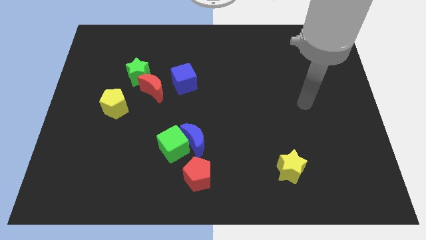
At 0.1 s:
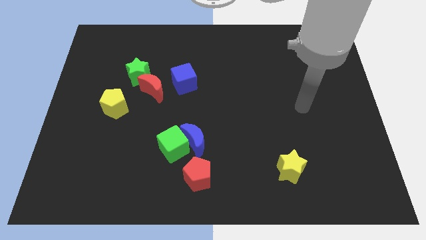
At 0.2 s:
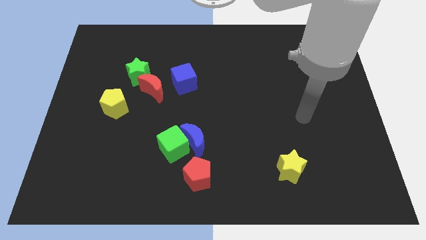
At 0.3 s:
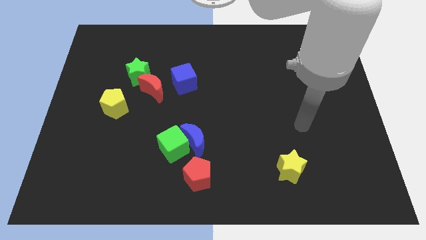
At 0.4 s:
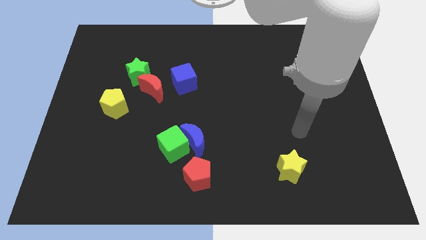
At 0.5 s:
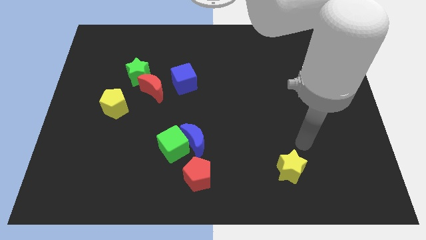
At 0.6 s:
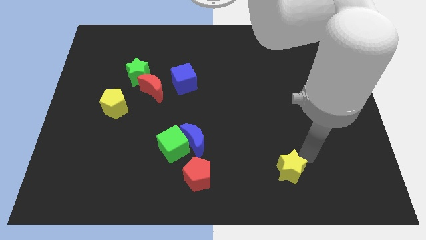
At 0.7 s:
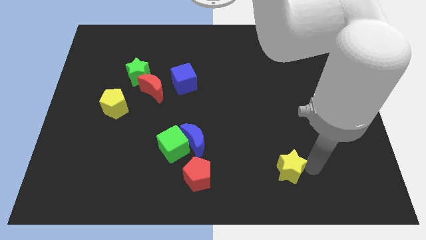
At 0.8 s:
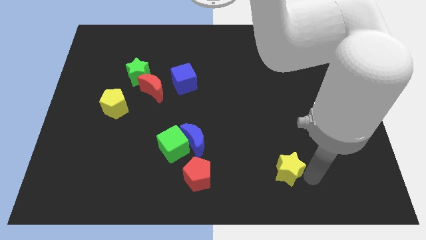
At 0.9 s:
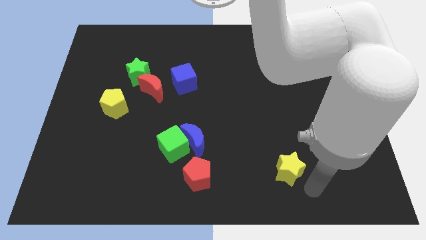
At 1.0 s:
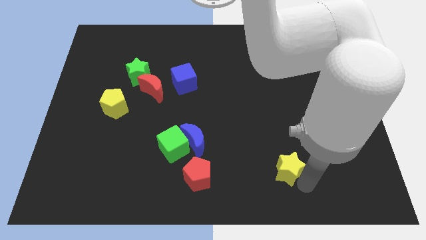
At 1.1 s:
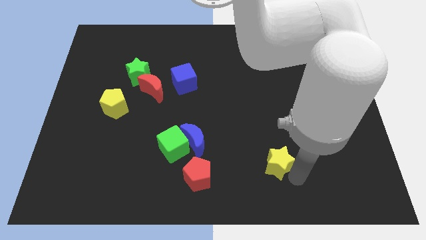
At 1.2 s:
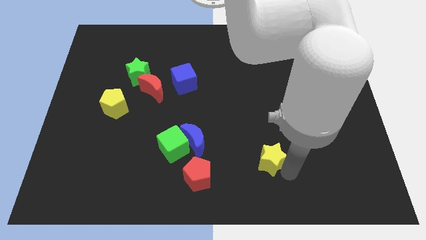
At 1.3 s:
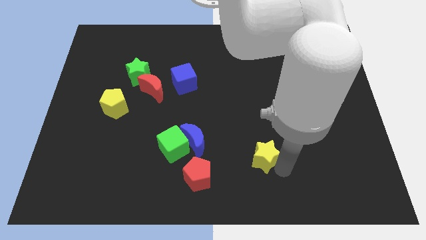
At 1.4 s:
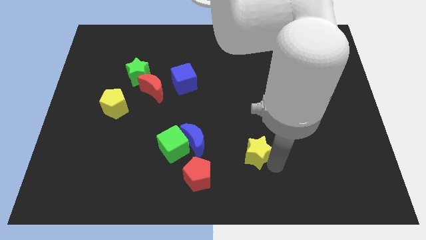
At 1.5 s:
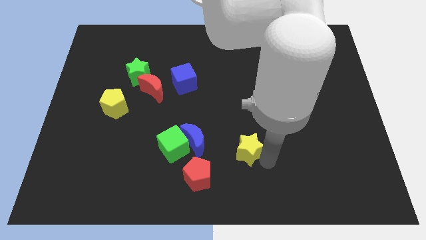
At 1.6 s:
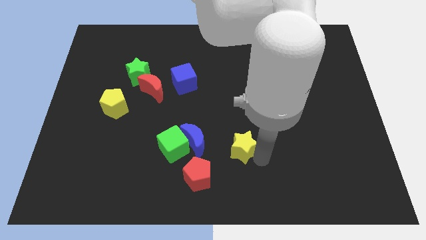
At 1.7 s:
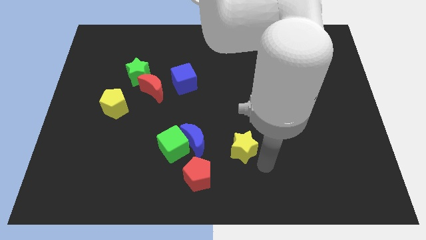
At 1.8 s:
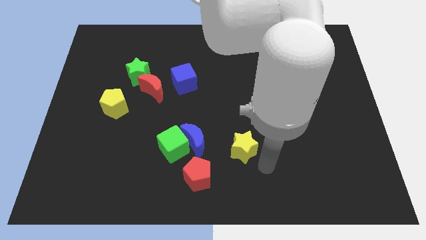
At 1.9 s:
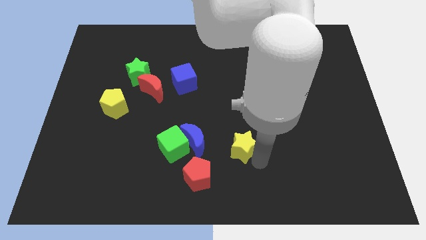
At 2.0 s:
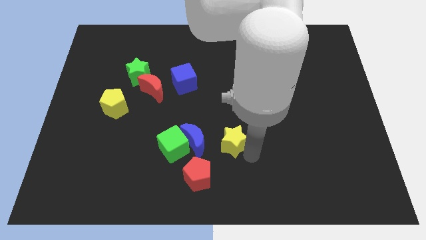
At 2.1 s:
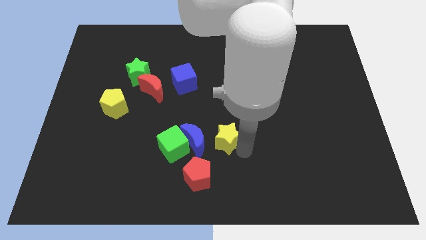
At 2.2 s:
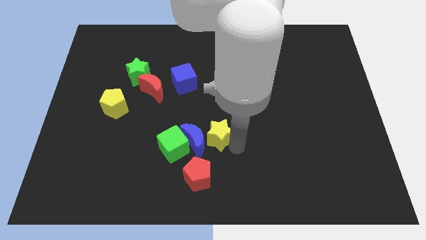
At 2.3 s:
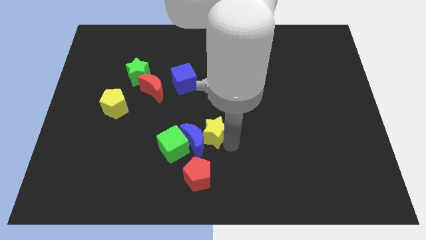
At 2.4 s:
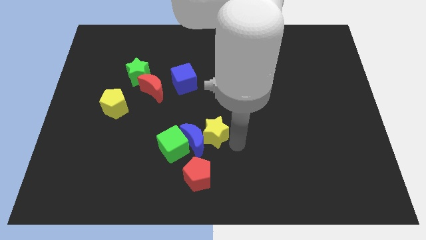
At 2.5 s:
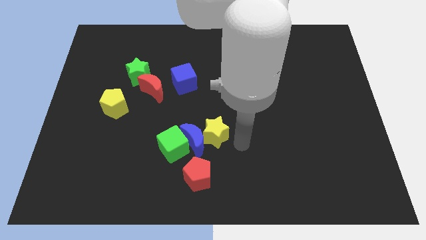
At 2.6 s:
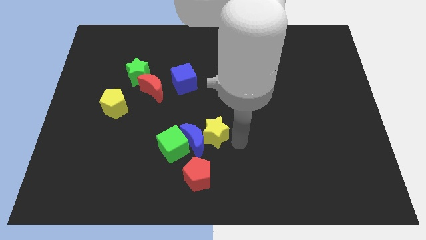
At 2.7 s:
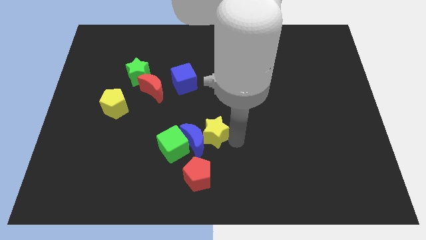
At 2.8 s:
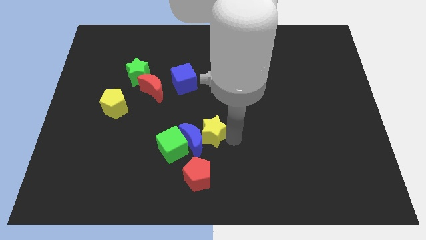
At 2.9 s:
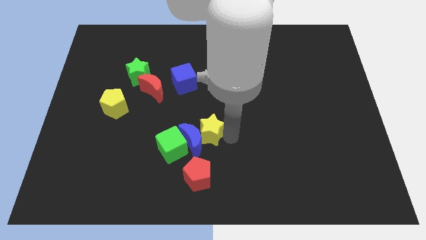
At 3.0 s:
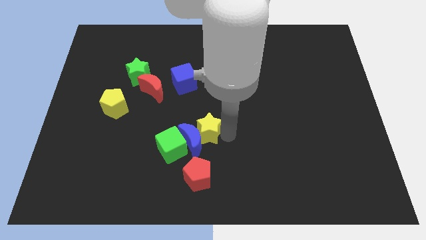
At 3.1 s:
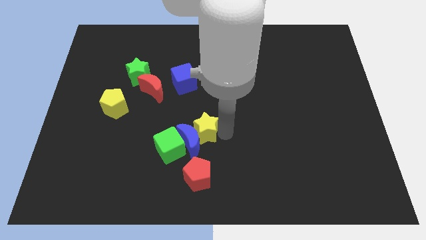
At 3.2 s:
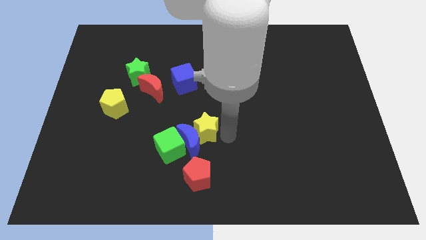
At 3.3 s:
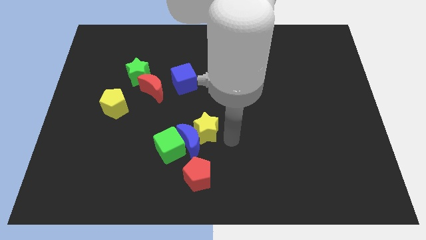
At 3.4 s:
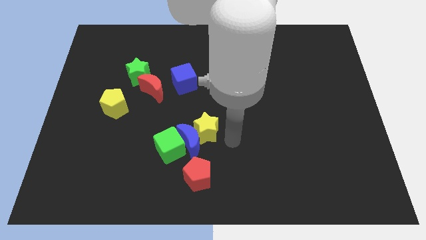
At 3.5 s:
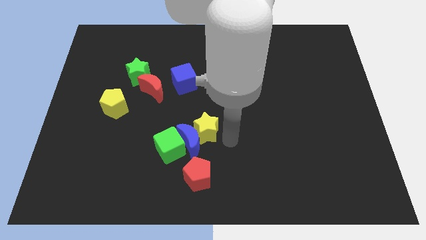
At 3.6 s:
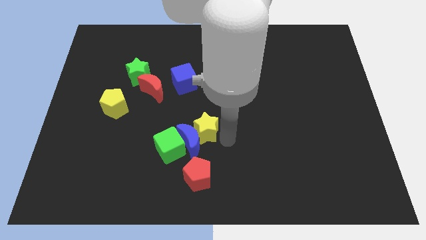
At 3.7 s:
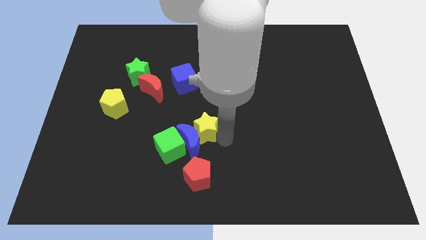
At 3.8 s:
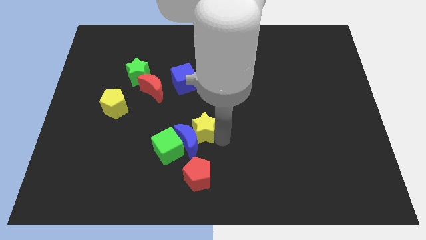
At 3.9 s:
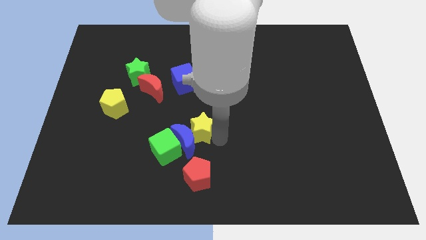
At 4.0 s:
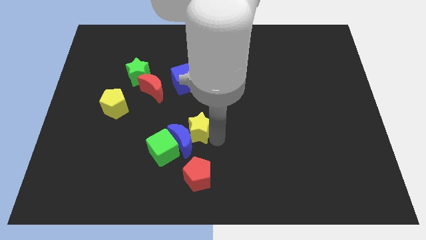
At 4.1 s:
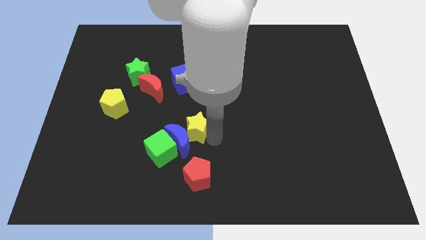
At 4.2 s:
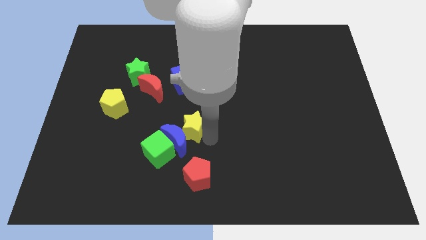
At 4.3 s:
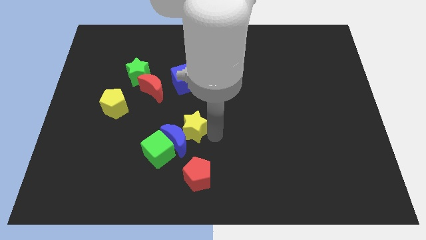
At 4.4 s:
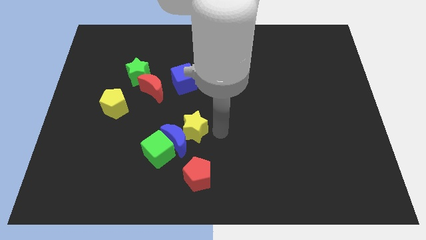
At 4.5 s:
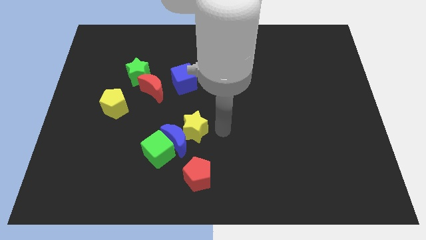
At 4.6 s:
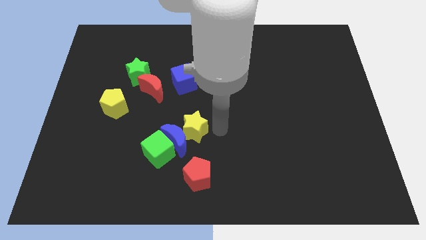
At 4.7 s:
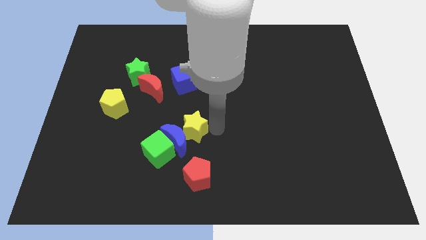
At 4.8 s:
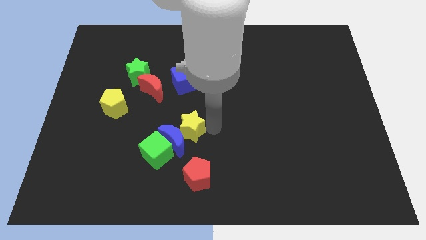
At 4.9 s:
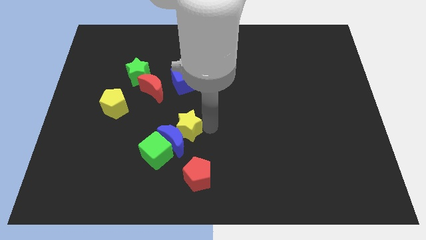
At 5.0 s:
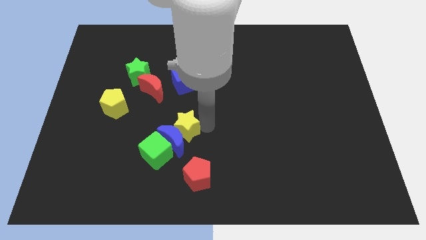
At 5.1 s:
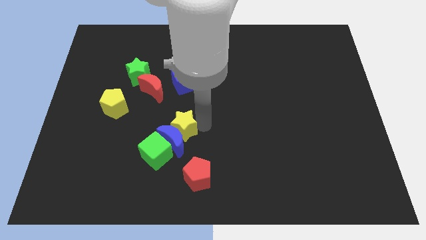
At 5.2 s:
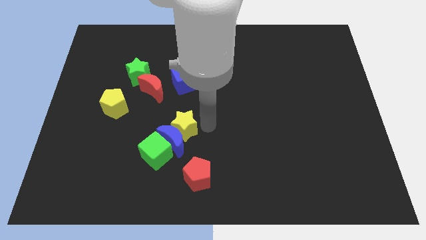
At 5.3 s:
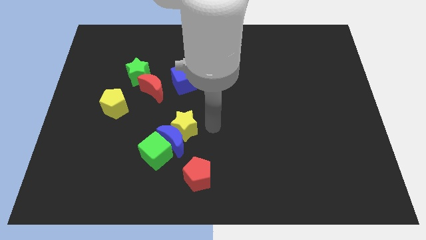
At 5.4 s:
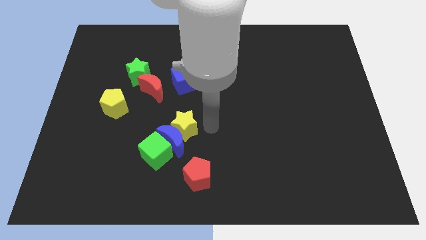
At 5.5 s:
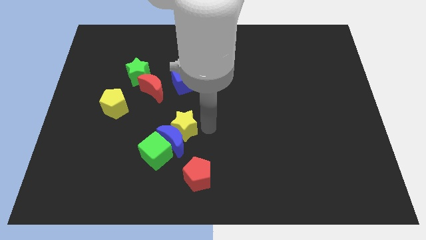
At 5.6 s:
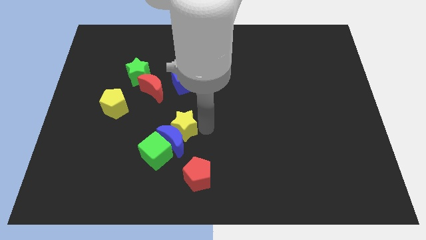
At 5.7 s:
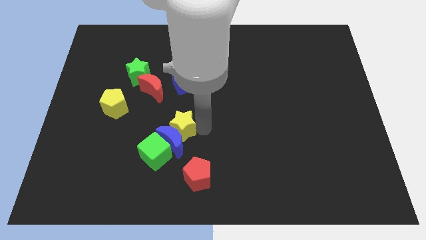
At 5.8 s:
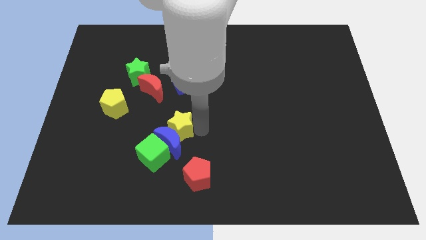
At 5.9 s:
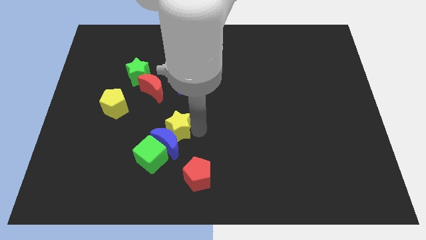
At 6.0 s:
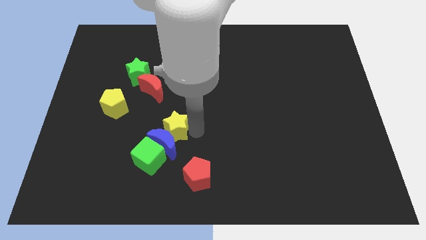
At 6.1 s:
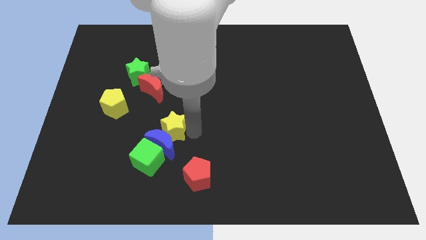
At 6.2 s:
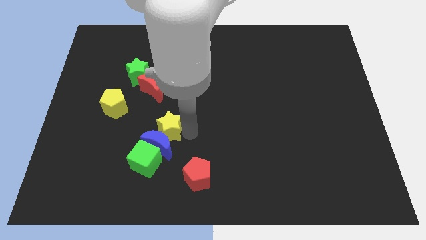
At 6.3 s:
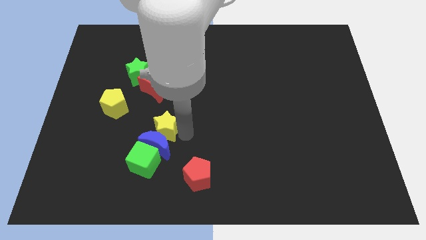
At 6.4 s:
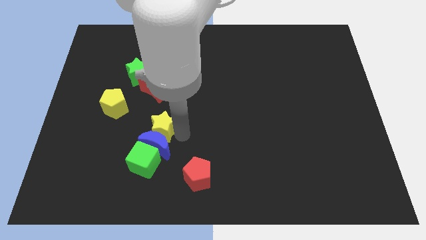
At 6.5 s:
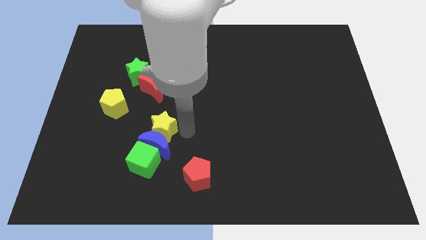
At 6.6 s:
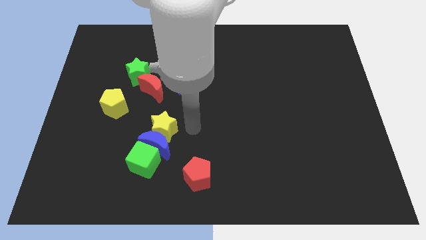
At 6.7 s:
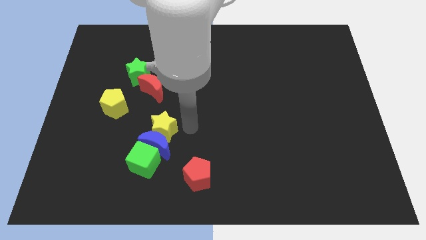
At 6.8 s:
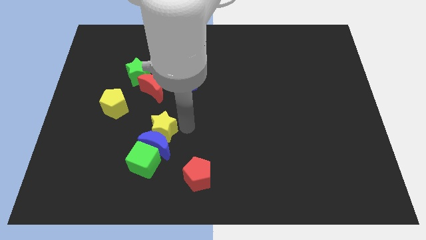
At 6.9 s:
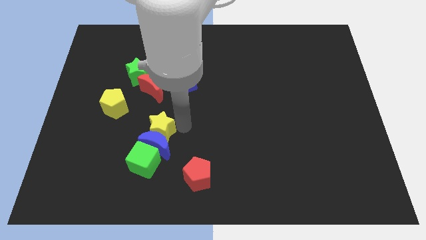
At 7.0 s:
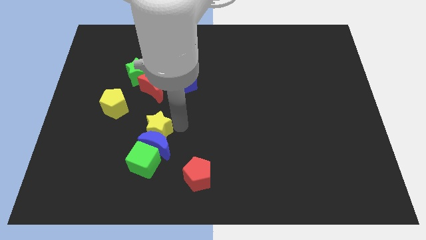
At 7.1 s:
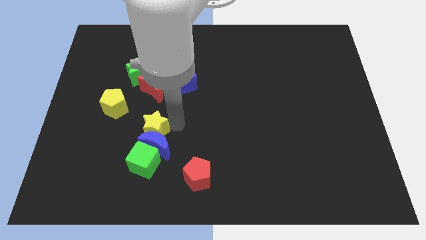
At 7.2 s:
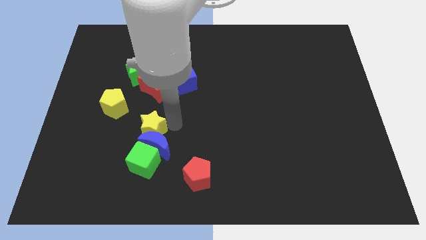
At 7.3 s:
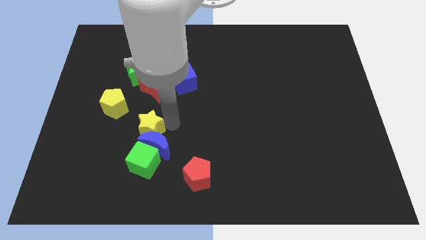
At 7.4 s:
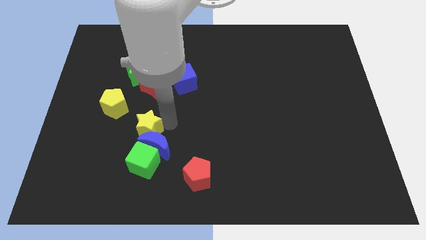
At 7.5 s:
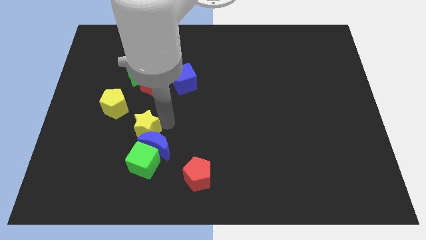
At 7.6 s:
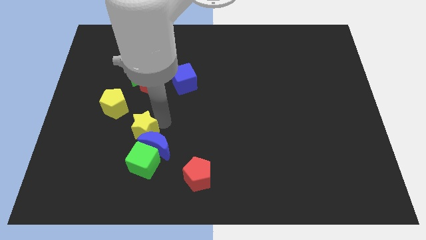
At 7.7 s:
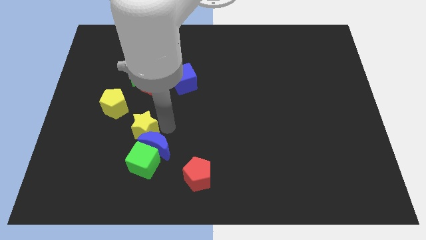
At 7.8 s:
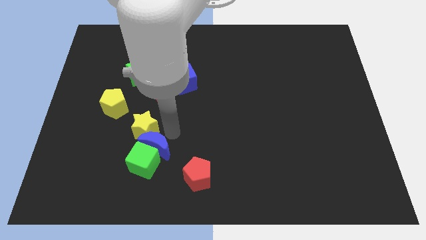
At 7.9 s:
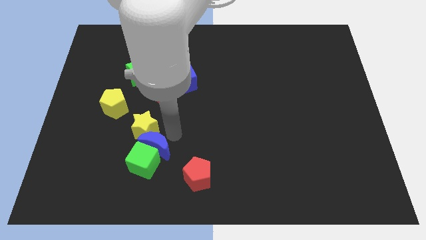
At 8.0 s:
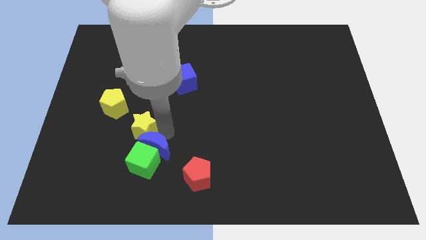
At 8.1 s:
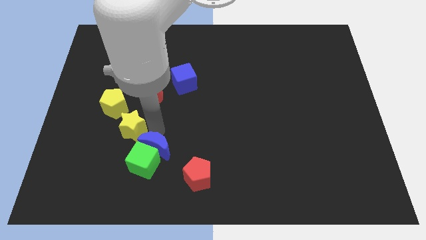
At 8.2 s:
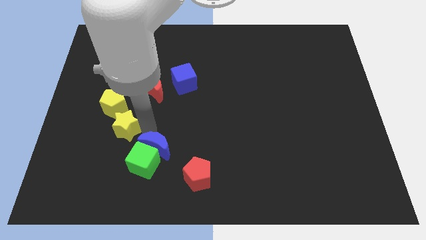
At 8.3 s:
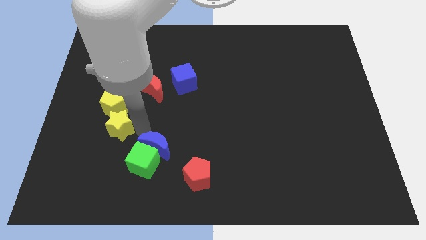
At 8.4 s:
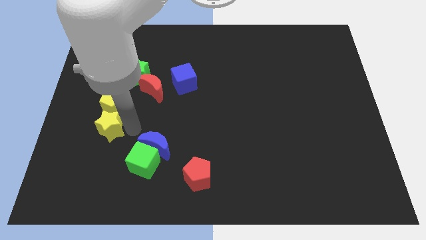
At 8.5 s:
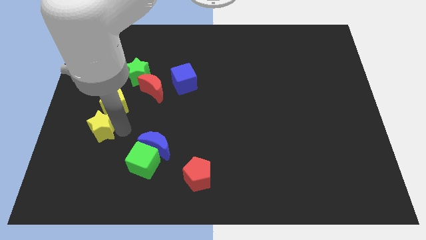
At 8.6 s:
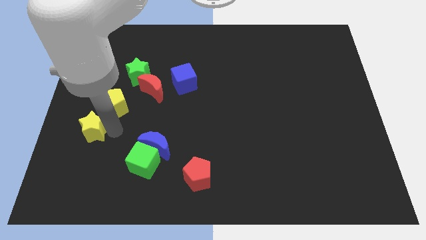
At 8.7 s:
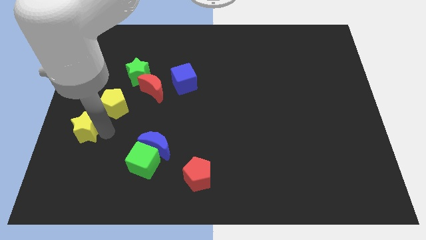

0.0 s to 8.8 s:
move the yellow star to the center left
